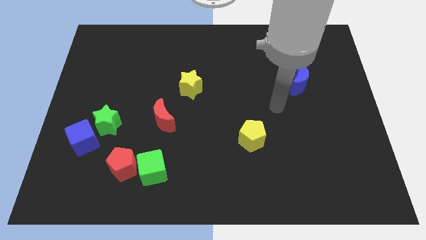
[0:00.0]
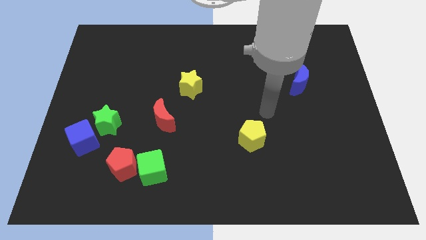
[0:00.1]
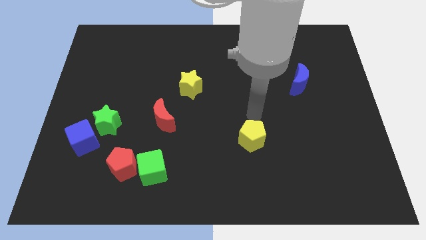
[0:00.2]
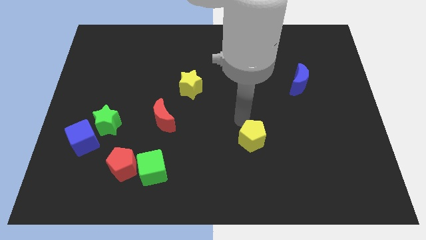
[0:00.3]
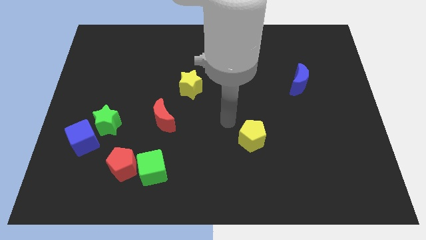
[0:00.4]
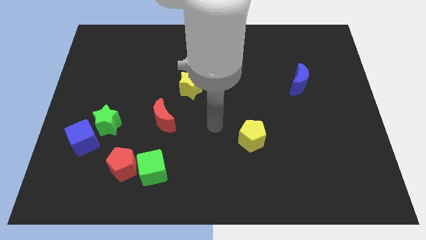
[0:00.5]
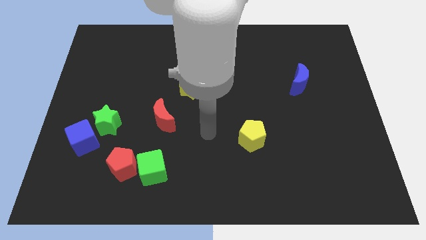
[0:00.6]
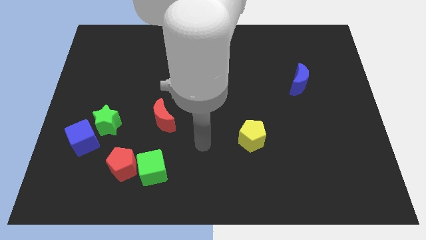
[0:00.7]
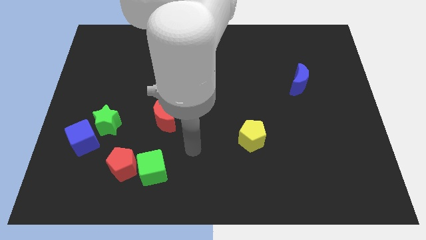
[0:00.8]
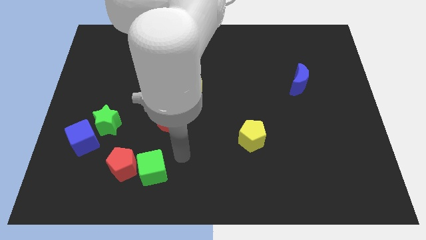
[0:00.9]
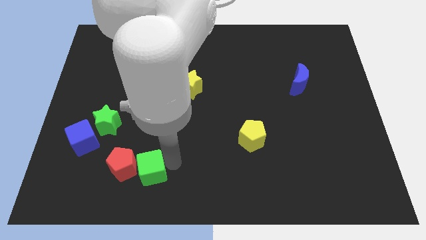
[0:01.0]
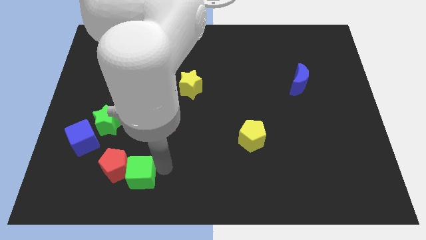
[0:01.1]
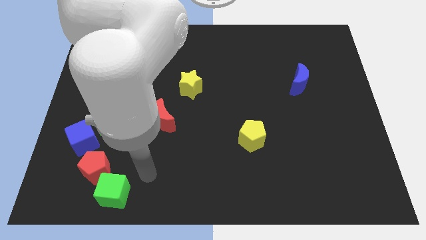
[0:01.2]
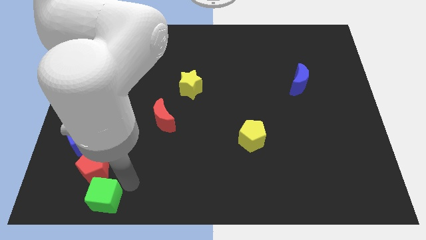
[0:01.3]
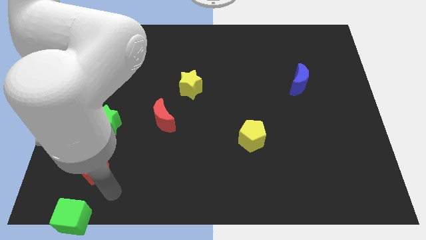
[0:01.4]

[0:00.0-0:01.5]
pull the red pentagon apart from the green cube

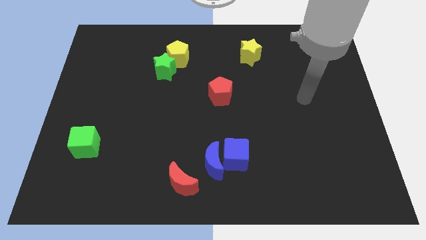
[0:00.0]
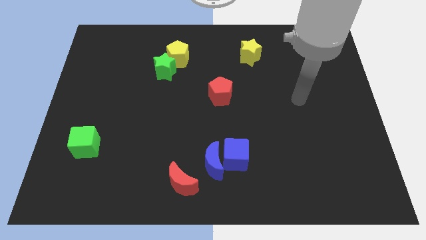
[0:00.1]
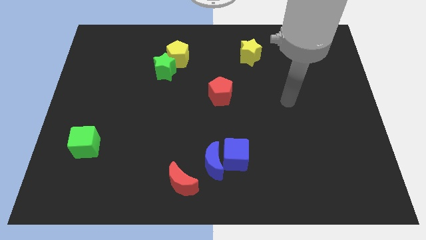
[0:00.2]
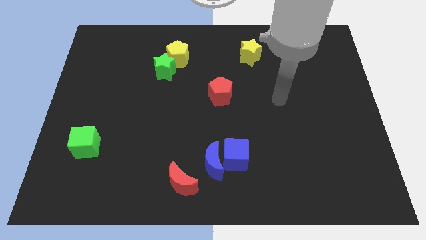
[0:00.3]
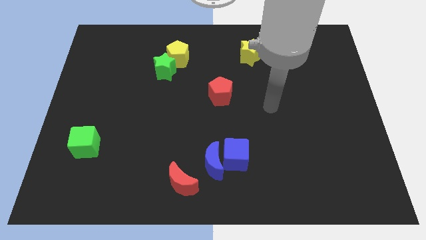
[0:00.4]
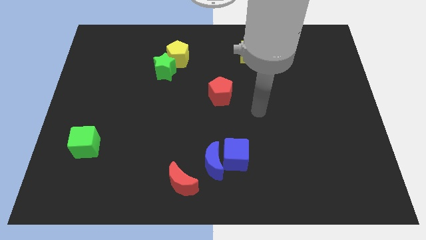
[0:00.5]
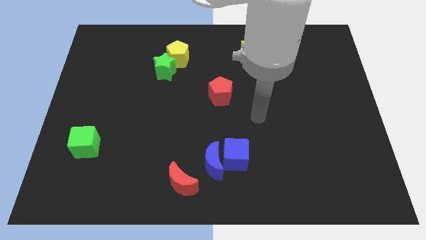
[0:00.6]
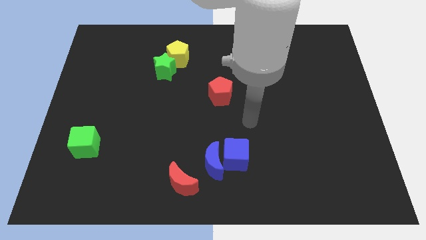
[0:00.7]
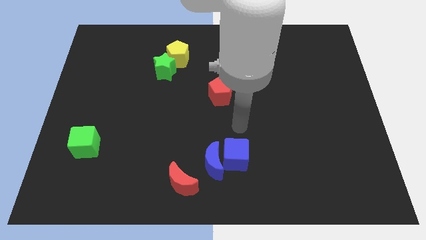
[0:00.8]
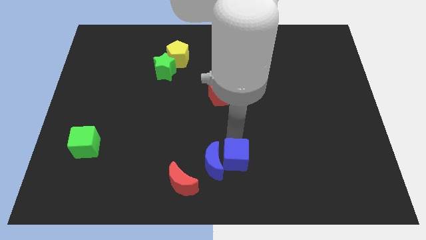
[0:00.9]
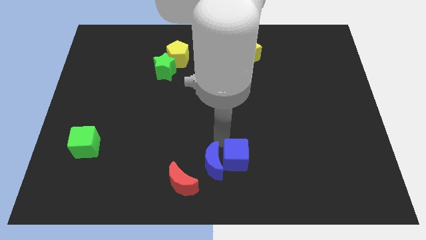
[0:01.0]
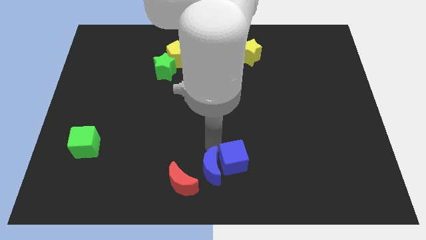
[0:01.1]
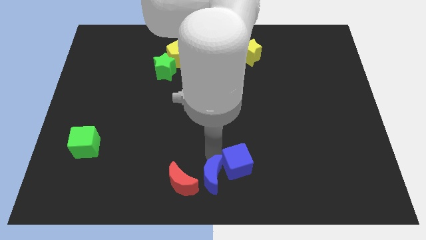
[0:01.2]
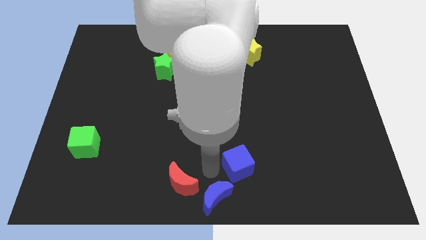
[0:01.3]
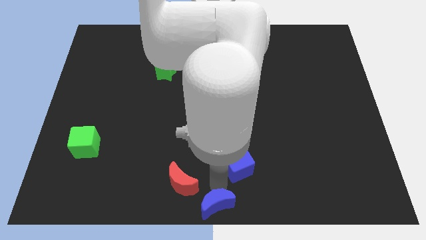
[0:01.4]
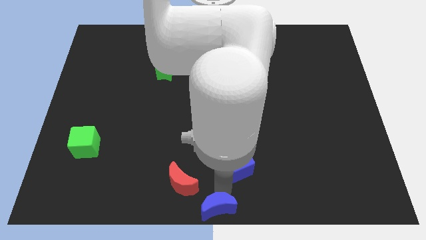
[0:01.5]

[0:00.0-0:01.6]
pull the blue cube apart from the blue moon

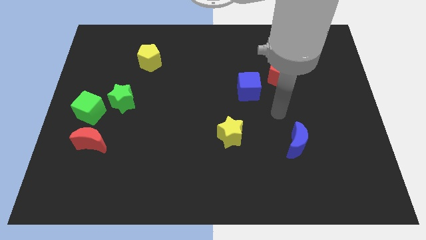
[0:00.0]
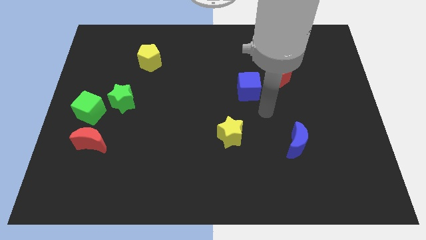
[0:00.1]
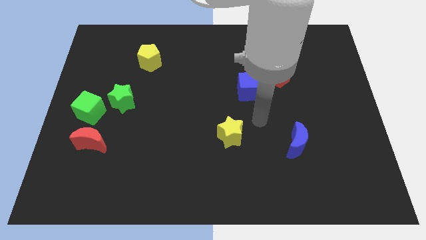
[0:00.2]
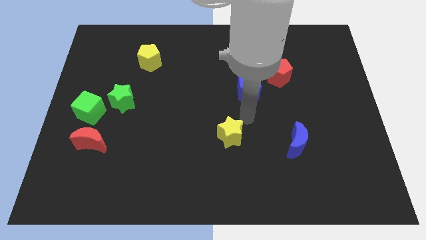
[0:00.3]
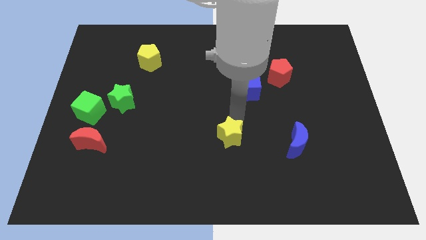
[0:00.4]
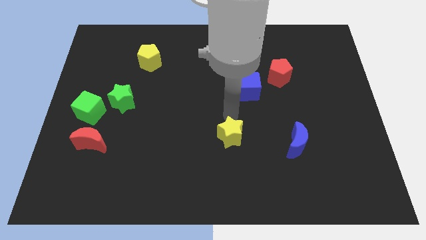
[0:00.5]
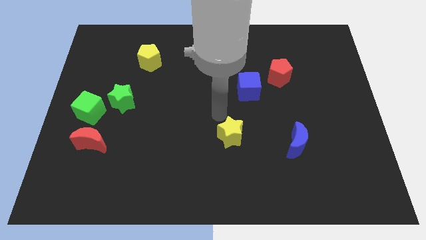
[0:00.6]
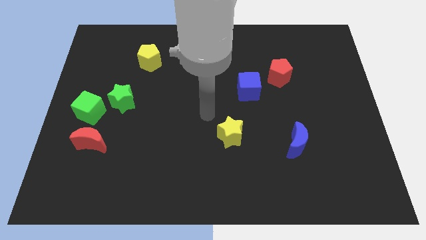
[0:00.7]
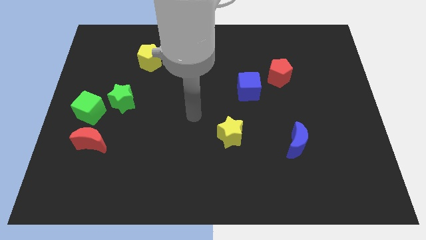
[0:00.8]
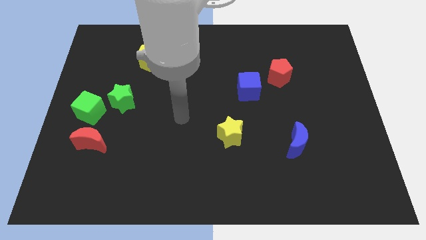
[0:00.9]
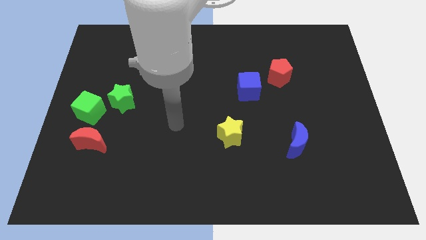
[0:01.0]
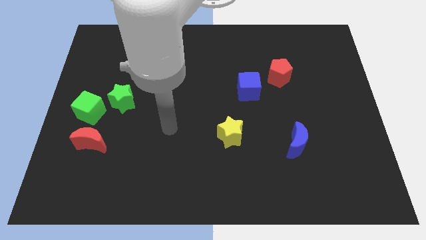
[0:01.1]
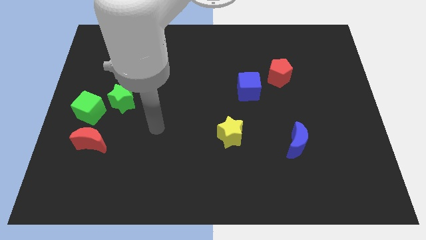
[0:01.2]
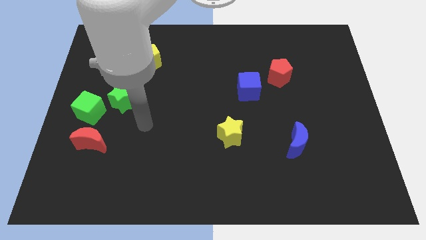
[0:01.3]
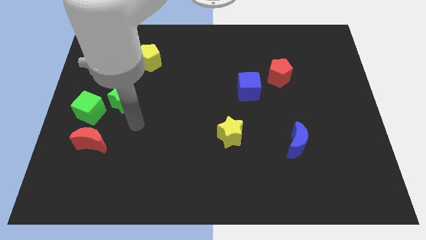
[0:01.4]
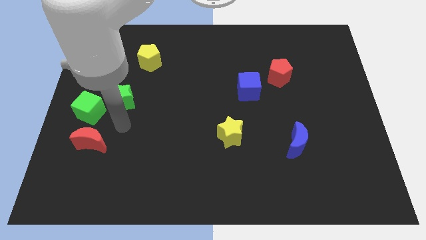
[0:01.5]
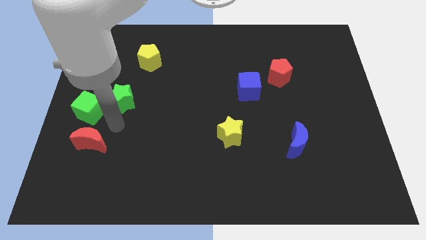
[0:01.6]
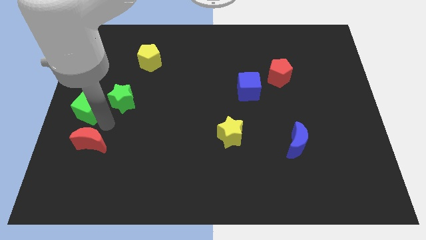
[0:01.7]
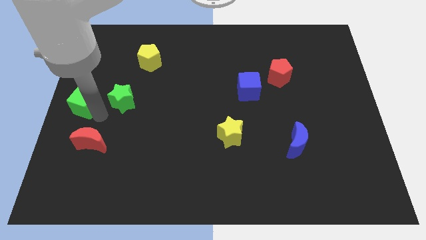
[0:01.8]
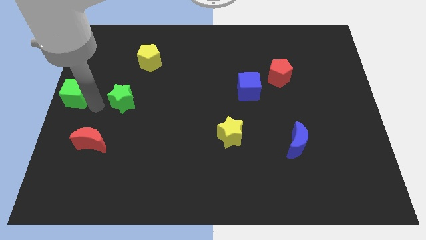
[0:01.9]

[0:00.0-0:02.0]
pull the green star apart from the green cube

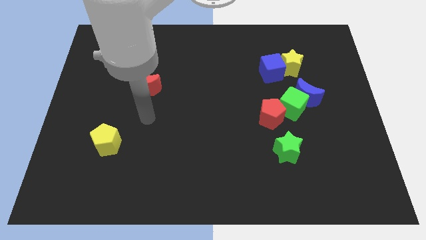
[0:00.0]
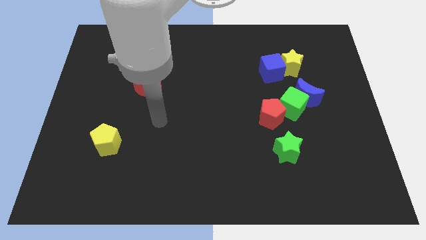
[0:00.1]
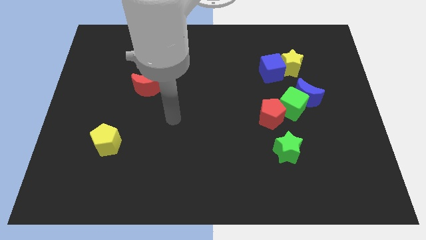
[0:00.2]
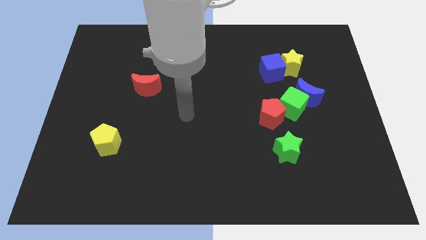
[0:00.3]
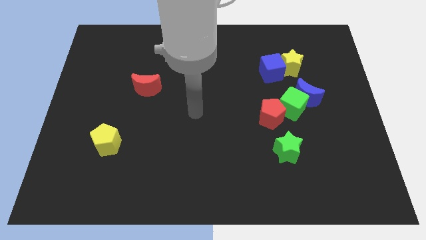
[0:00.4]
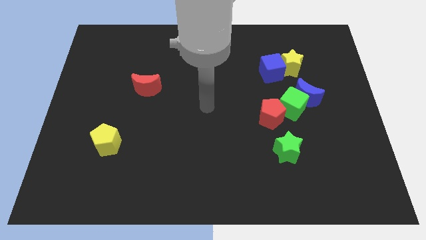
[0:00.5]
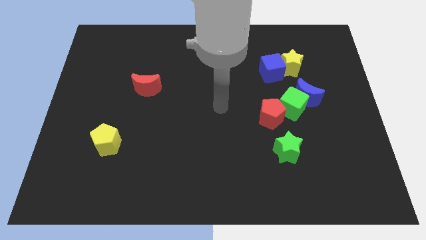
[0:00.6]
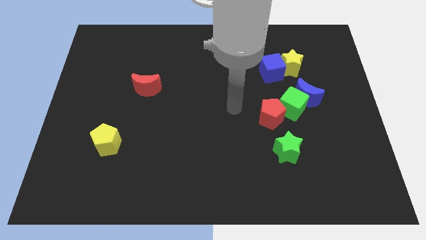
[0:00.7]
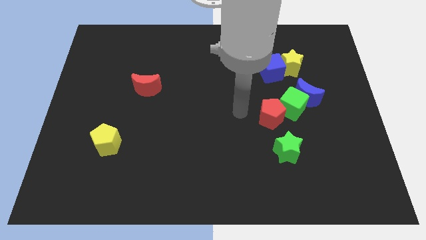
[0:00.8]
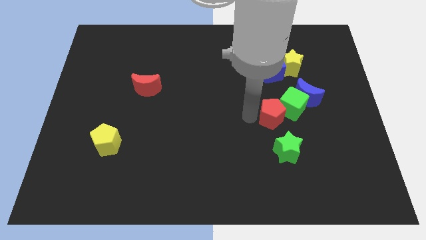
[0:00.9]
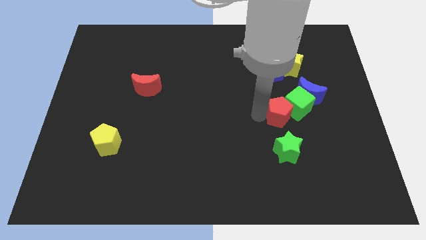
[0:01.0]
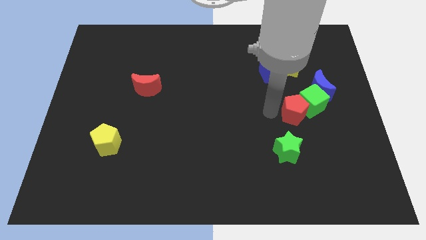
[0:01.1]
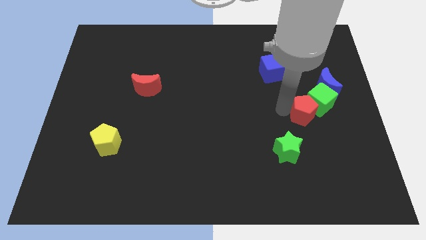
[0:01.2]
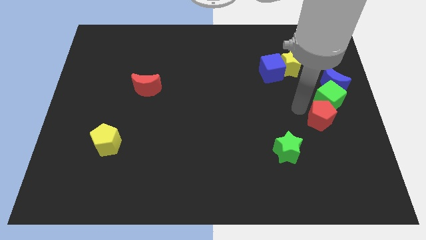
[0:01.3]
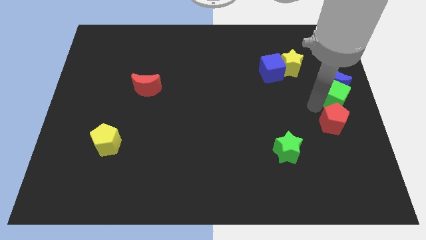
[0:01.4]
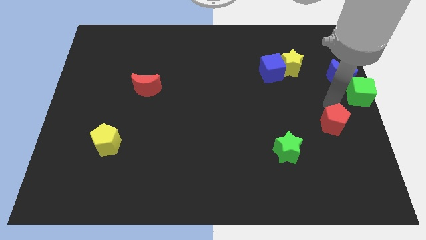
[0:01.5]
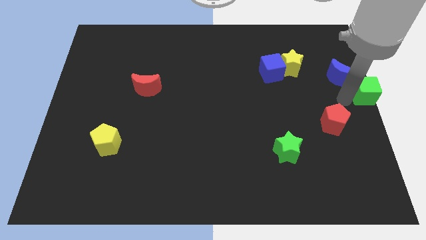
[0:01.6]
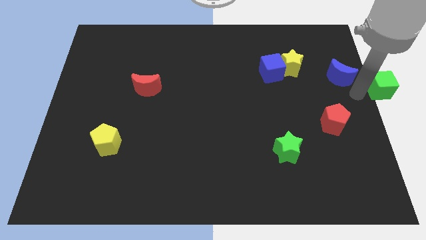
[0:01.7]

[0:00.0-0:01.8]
move the blue moon away from the green cube

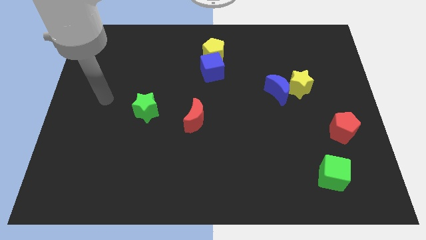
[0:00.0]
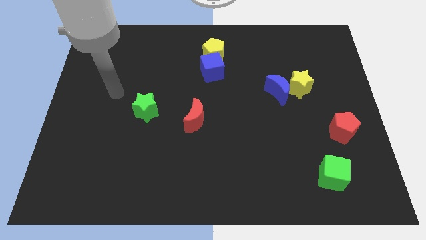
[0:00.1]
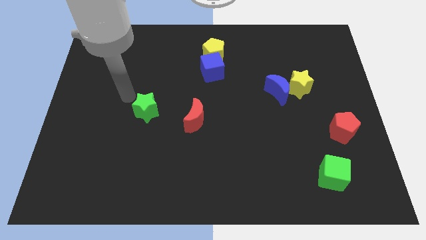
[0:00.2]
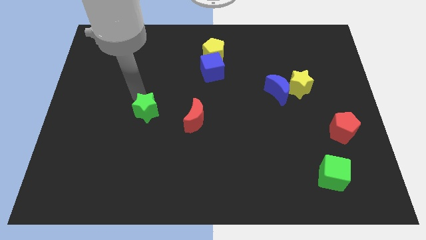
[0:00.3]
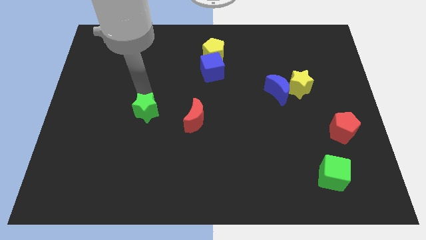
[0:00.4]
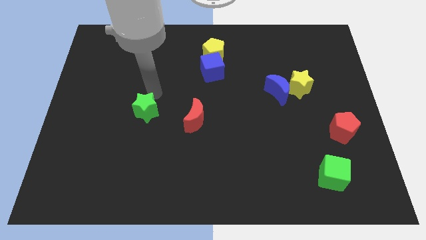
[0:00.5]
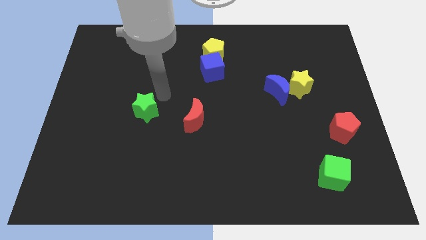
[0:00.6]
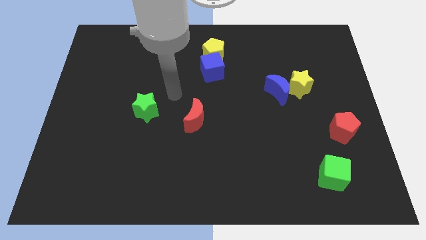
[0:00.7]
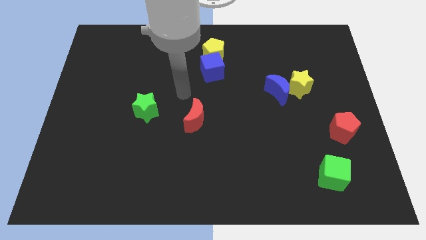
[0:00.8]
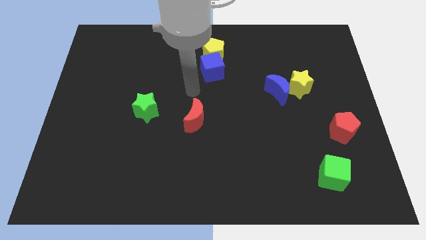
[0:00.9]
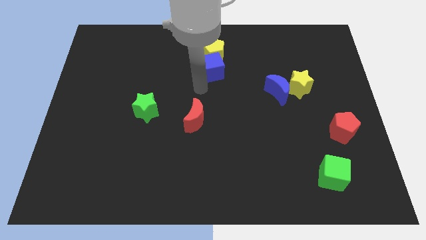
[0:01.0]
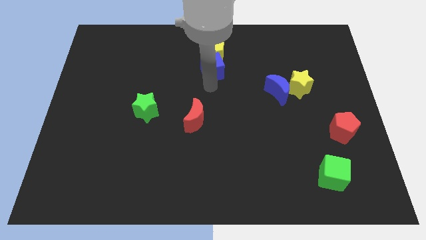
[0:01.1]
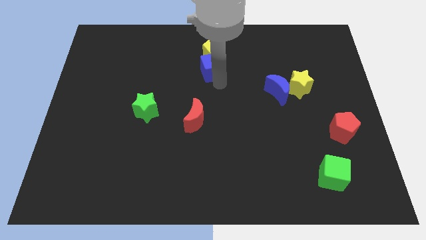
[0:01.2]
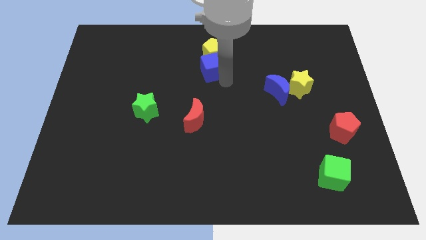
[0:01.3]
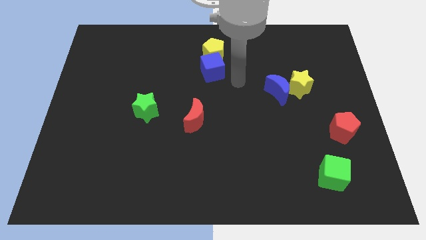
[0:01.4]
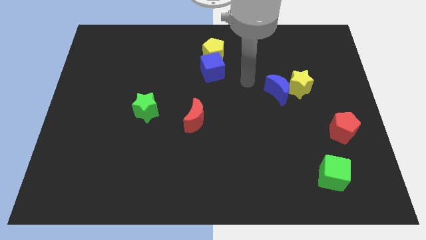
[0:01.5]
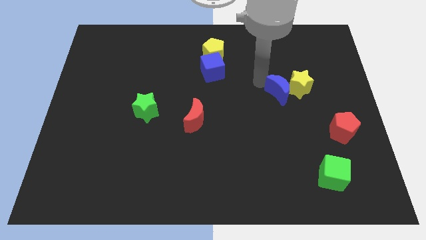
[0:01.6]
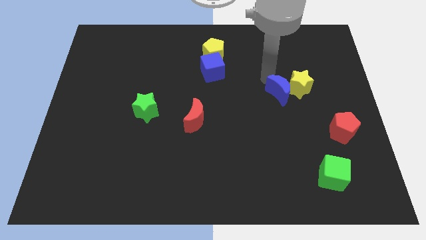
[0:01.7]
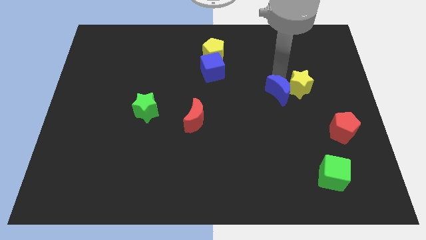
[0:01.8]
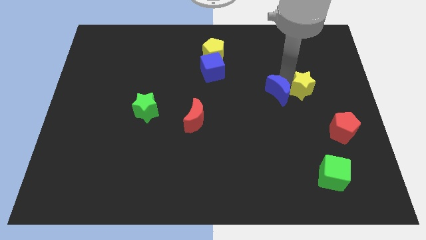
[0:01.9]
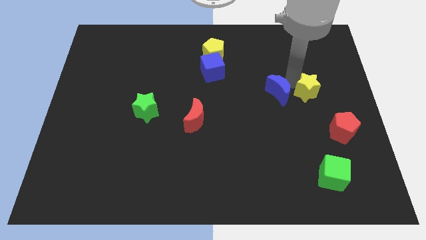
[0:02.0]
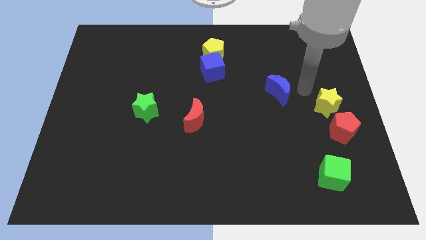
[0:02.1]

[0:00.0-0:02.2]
separate the blue moon from the yellow star

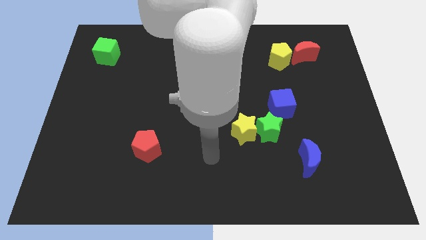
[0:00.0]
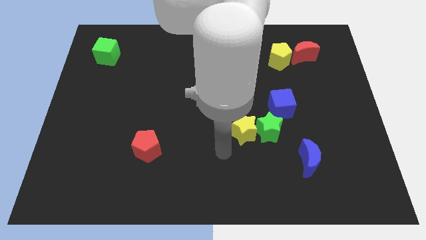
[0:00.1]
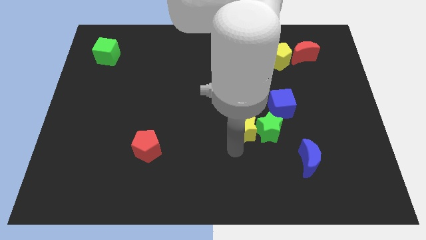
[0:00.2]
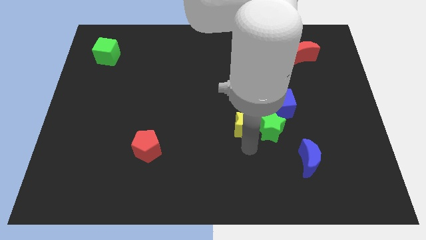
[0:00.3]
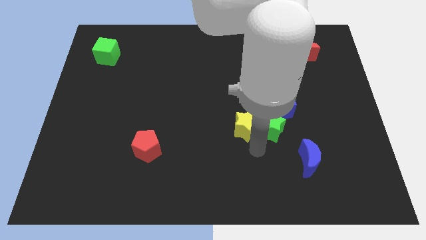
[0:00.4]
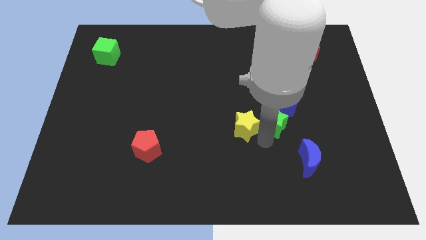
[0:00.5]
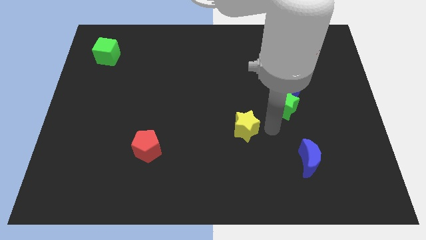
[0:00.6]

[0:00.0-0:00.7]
separate the yellow star from the green star
